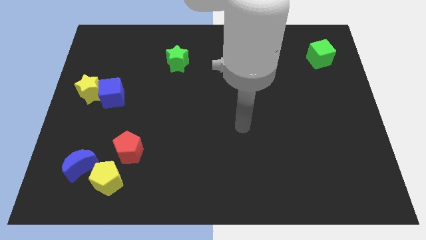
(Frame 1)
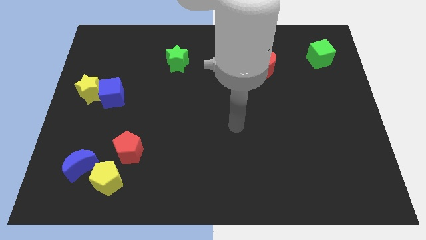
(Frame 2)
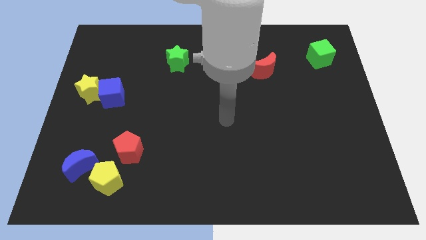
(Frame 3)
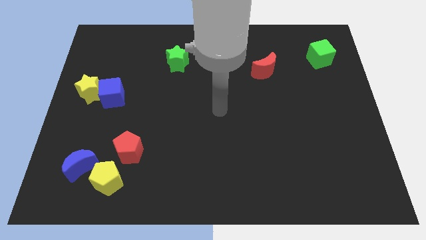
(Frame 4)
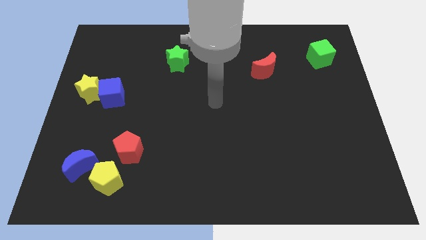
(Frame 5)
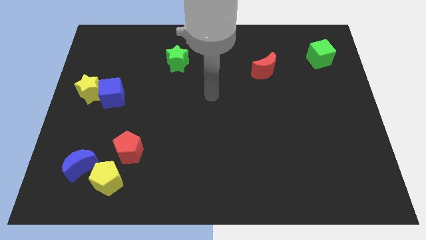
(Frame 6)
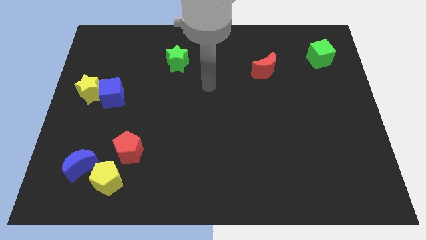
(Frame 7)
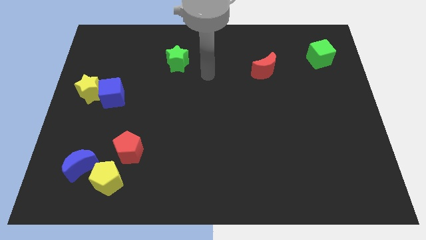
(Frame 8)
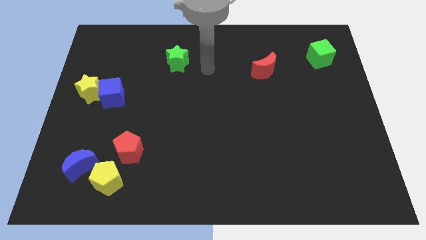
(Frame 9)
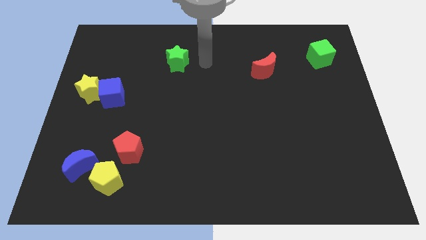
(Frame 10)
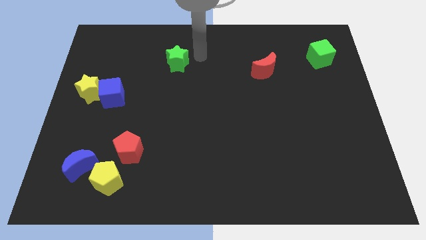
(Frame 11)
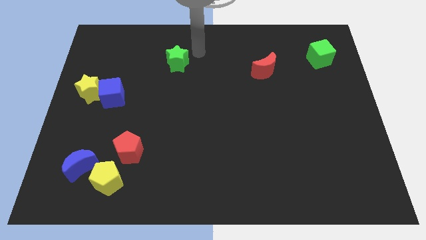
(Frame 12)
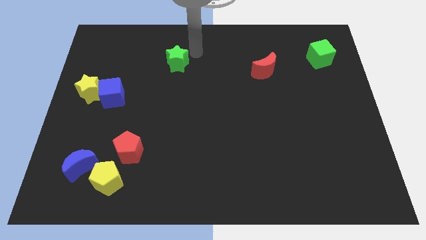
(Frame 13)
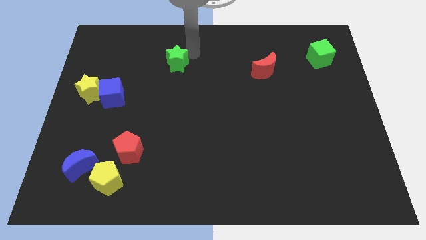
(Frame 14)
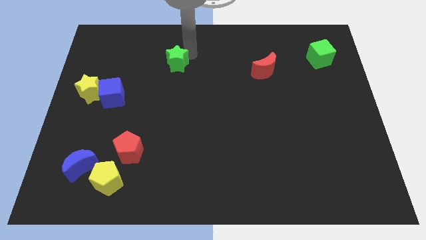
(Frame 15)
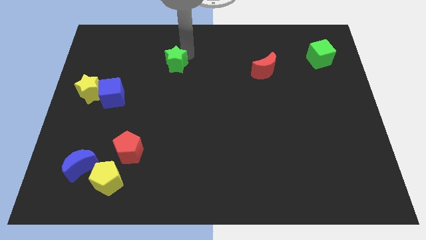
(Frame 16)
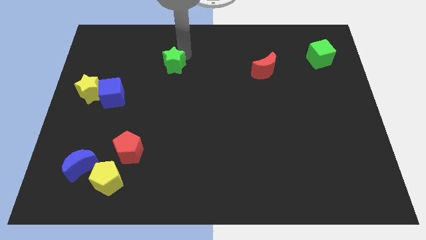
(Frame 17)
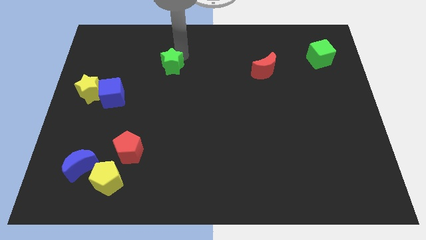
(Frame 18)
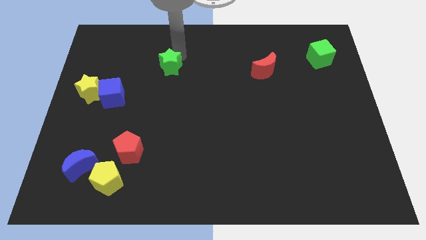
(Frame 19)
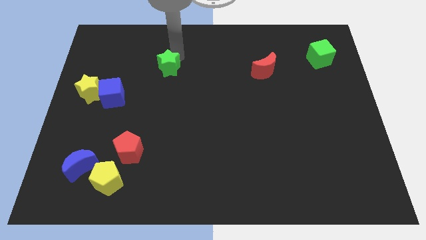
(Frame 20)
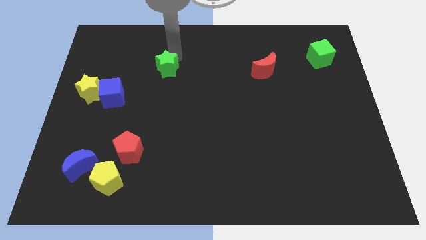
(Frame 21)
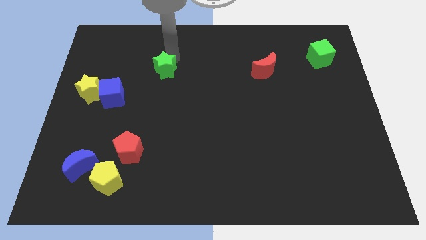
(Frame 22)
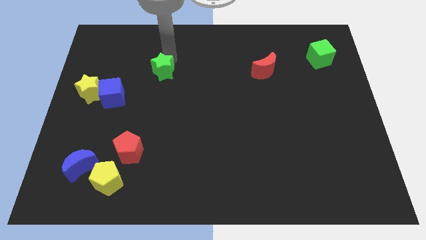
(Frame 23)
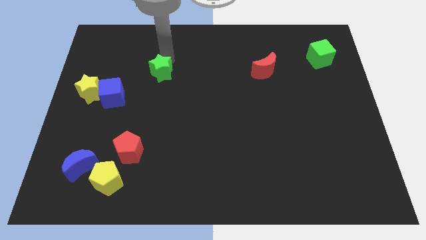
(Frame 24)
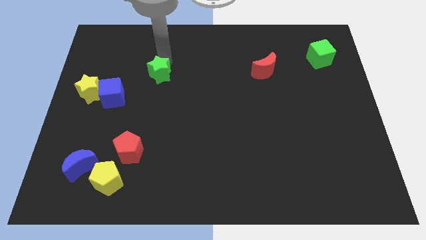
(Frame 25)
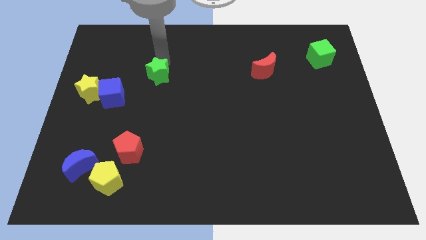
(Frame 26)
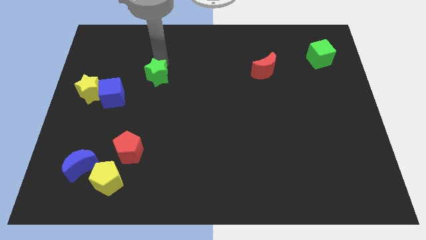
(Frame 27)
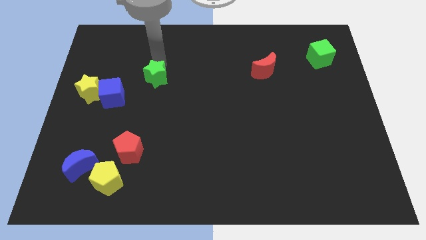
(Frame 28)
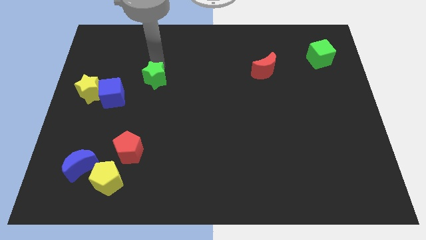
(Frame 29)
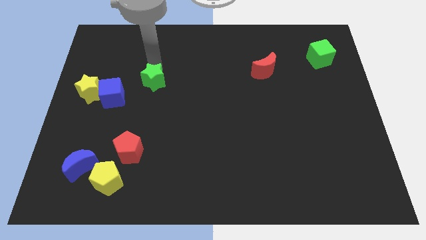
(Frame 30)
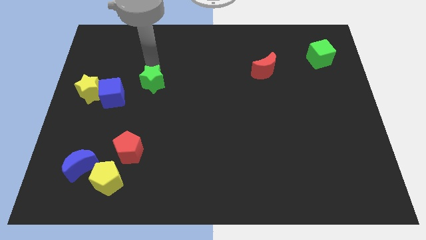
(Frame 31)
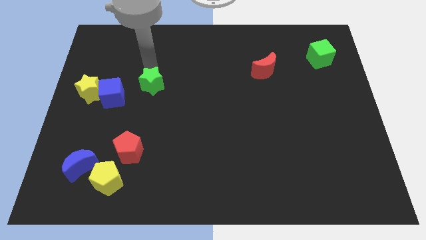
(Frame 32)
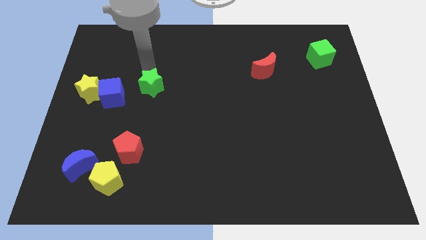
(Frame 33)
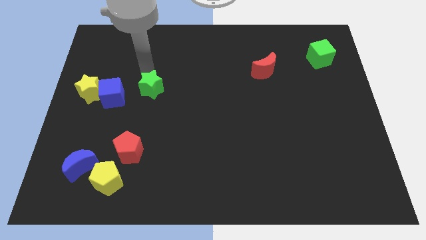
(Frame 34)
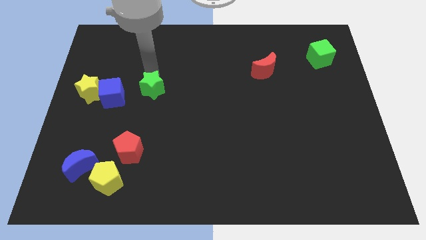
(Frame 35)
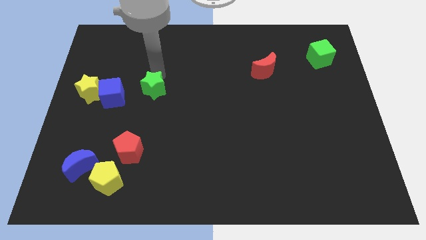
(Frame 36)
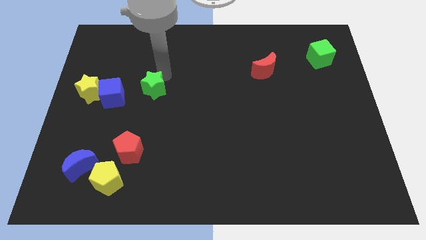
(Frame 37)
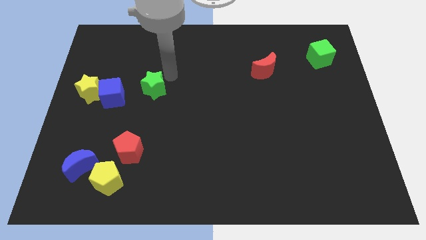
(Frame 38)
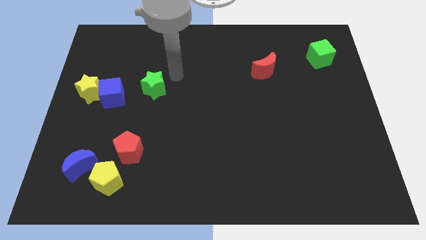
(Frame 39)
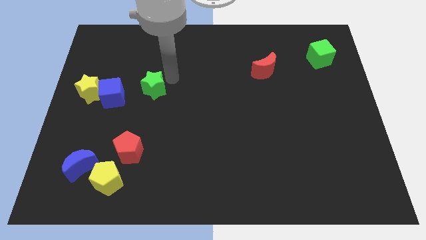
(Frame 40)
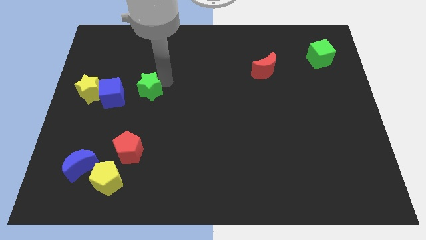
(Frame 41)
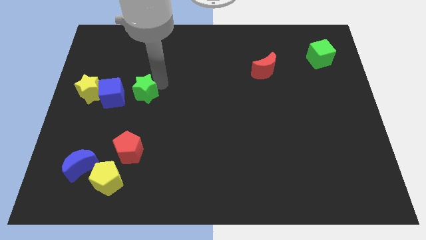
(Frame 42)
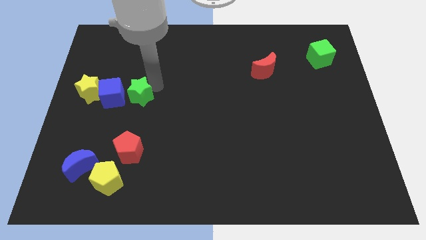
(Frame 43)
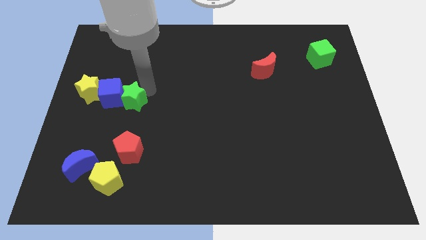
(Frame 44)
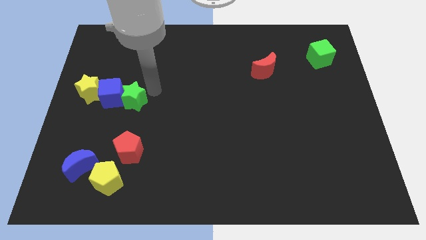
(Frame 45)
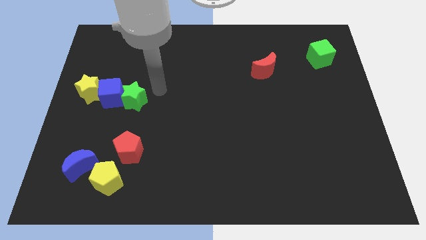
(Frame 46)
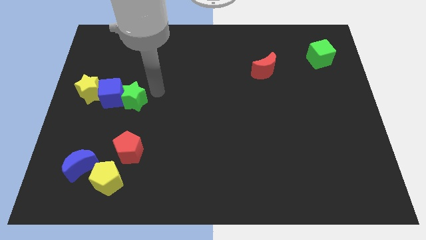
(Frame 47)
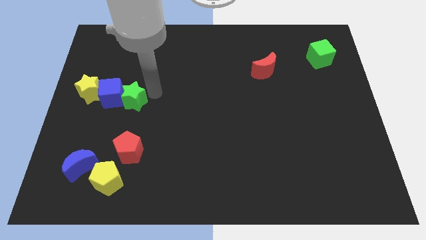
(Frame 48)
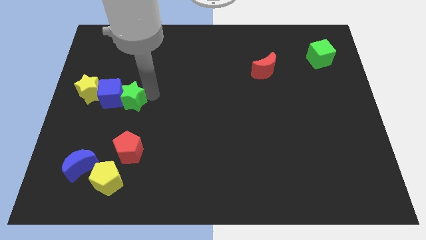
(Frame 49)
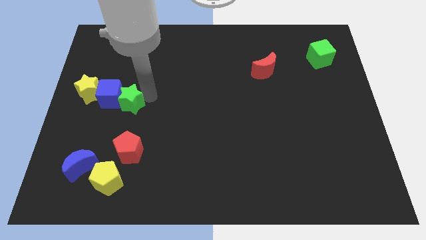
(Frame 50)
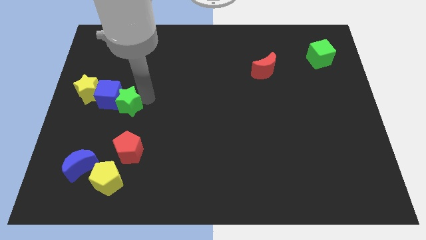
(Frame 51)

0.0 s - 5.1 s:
put the green star to the bottom right side of the yellow star

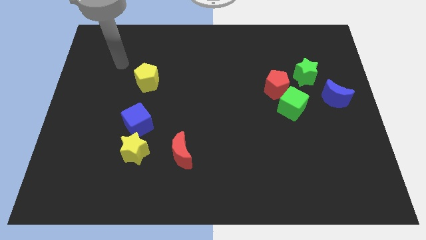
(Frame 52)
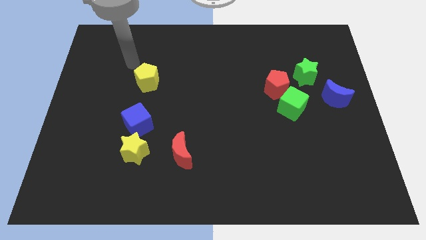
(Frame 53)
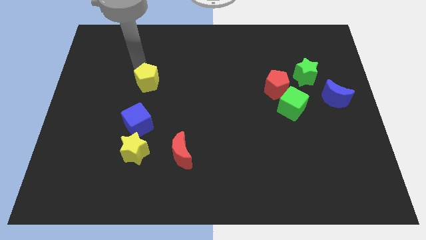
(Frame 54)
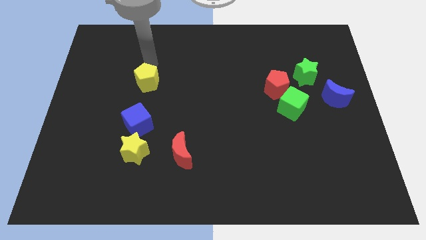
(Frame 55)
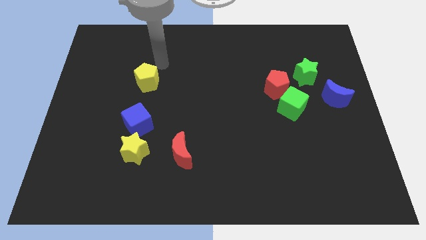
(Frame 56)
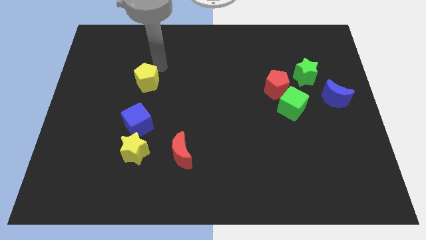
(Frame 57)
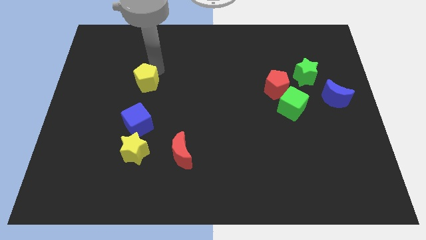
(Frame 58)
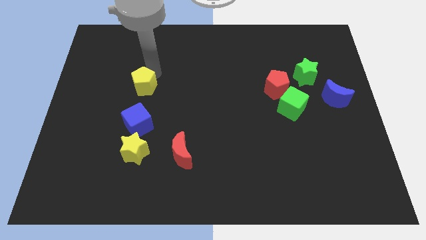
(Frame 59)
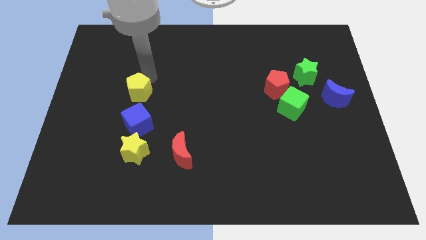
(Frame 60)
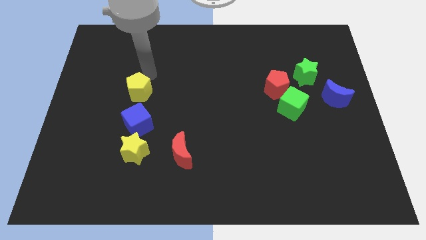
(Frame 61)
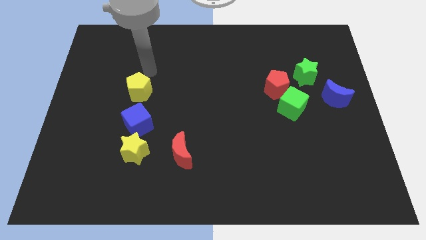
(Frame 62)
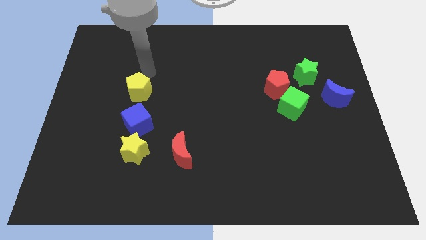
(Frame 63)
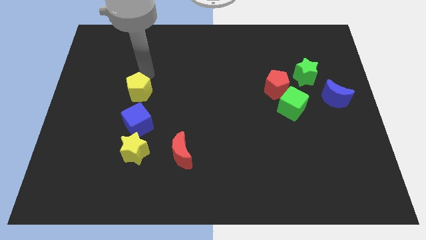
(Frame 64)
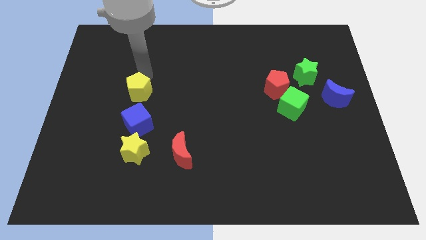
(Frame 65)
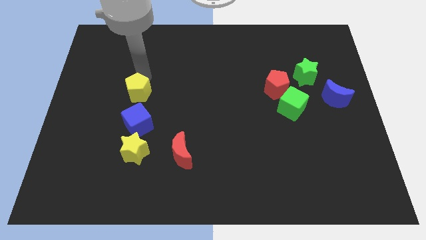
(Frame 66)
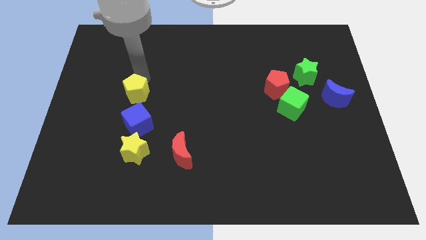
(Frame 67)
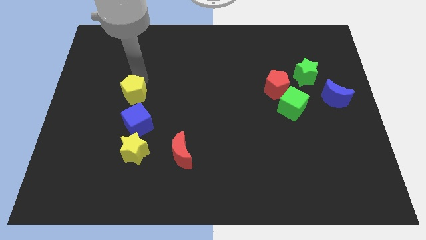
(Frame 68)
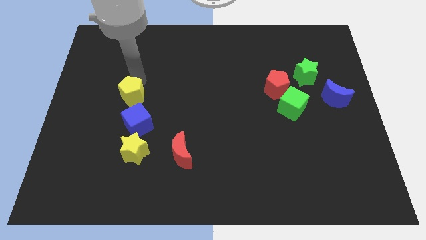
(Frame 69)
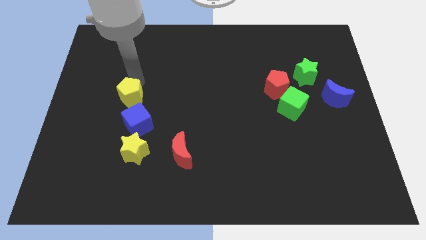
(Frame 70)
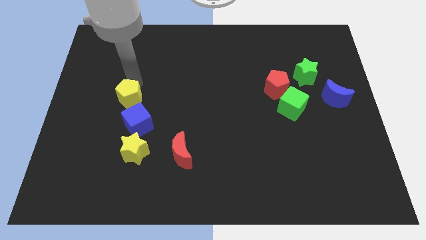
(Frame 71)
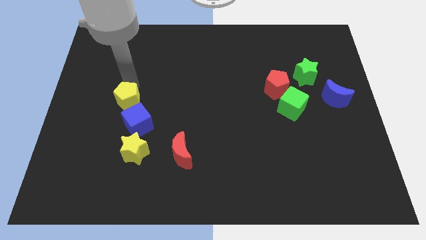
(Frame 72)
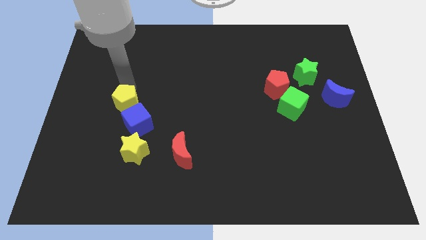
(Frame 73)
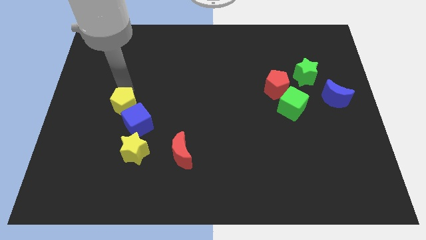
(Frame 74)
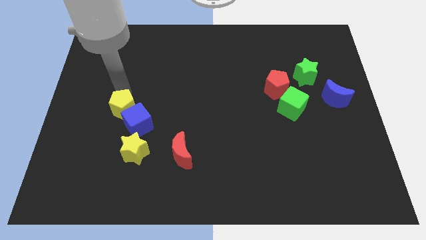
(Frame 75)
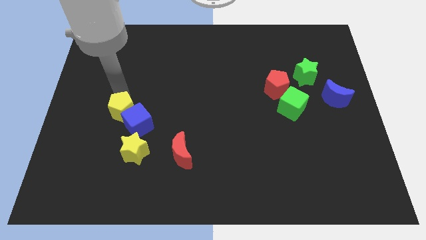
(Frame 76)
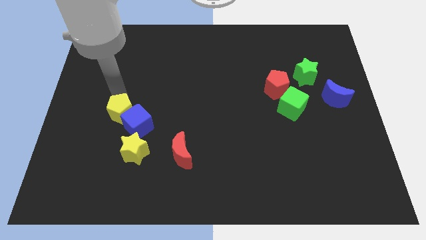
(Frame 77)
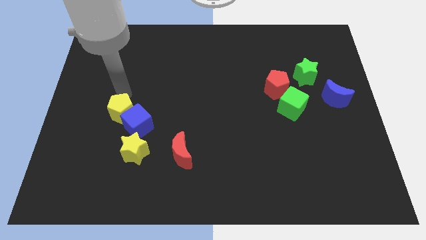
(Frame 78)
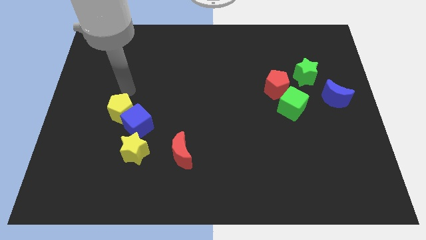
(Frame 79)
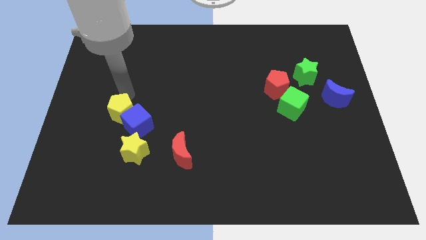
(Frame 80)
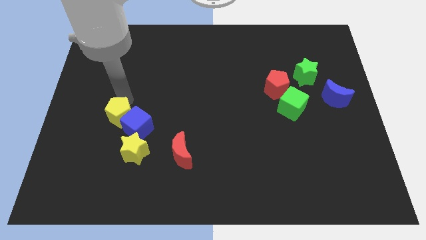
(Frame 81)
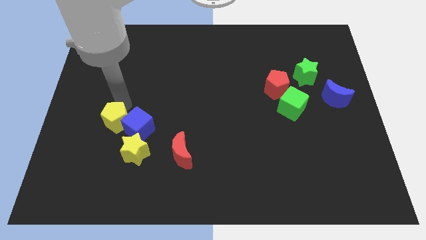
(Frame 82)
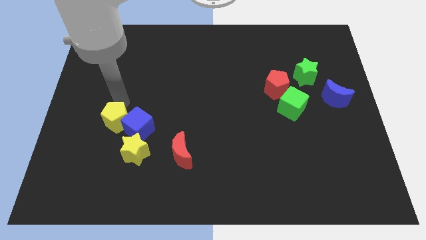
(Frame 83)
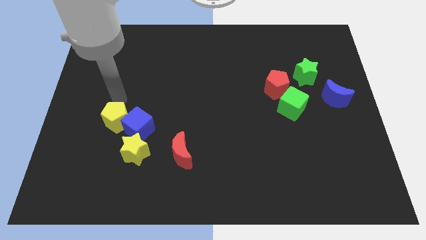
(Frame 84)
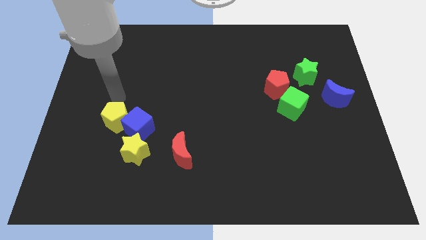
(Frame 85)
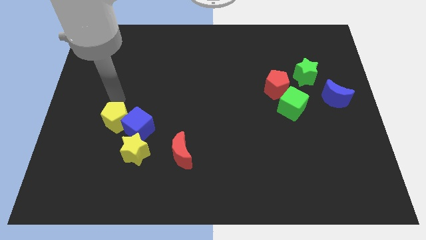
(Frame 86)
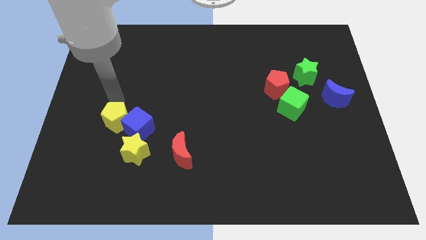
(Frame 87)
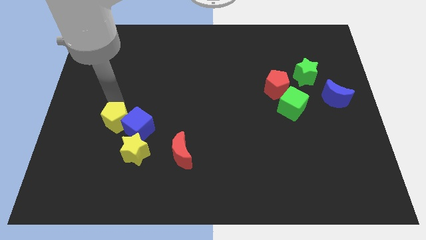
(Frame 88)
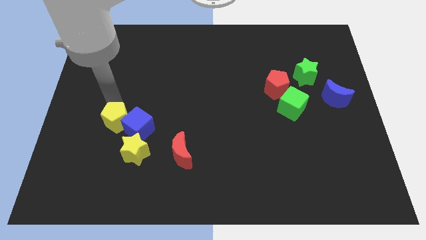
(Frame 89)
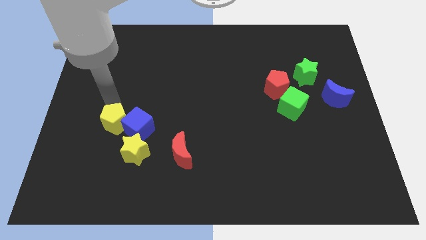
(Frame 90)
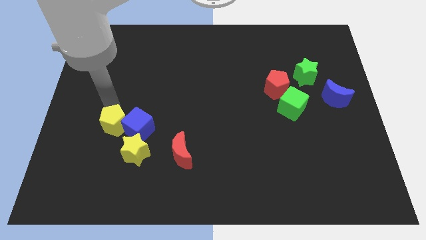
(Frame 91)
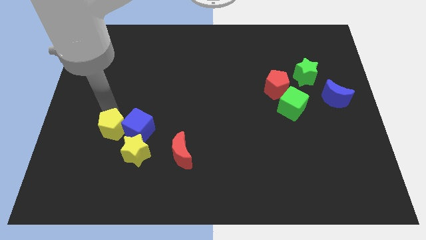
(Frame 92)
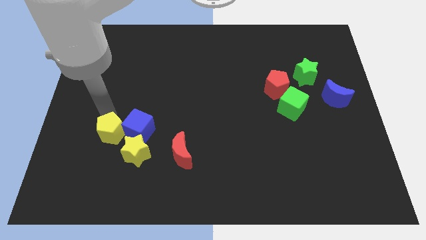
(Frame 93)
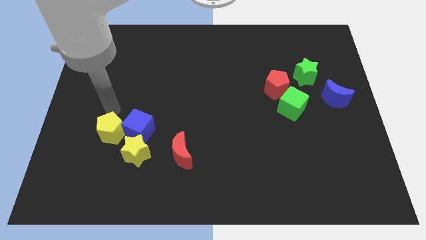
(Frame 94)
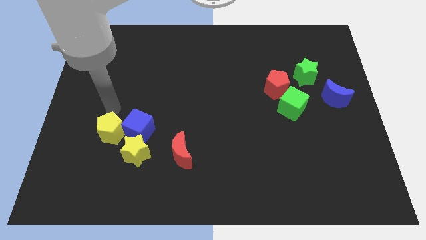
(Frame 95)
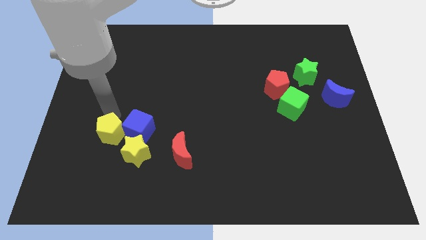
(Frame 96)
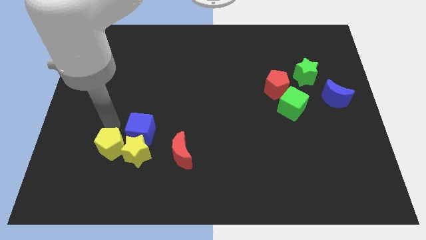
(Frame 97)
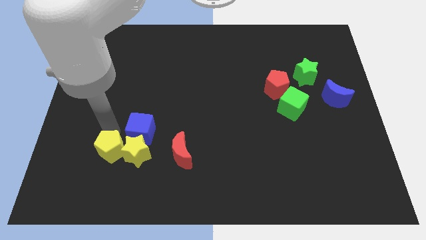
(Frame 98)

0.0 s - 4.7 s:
push the yellow pentagon diagonally down and to the left of the yellow star
